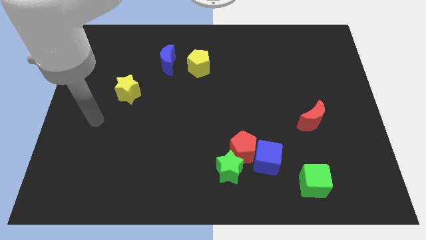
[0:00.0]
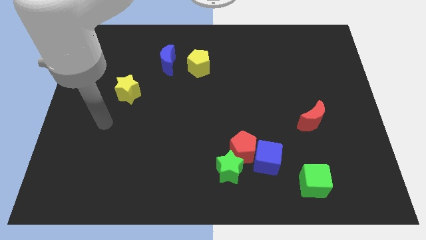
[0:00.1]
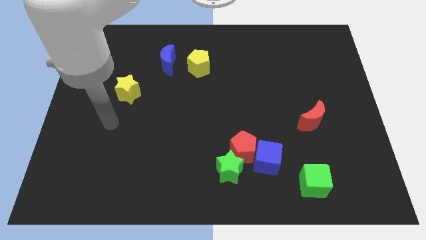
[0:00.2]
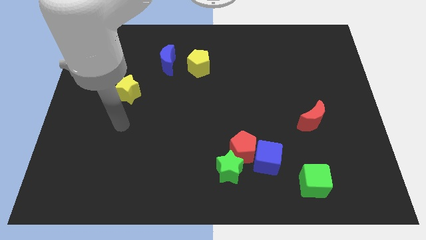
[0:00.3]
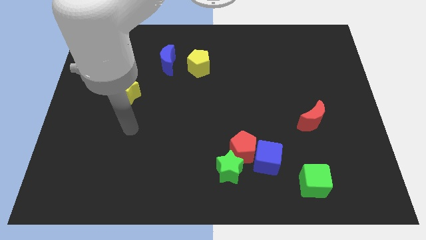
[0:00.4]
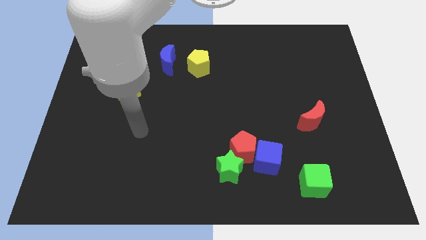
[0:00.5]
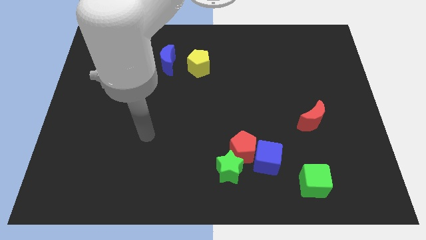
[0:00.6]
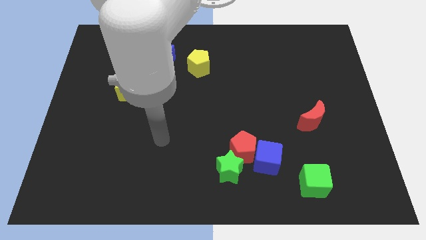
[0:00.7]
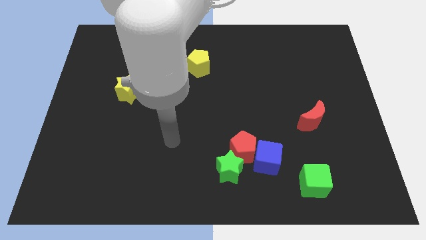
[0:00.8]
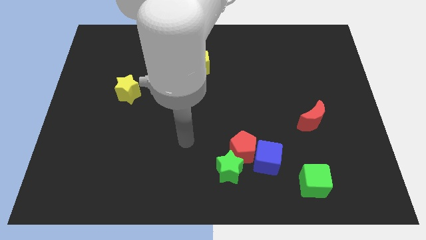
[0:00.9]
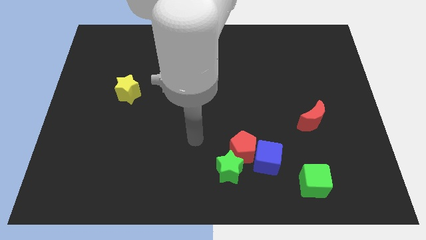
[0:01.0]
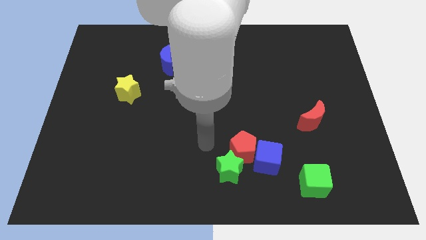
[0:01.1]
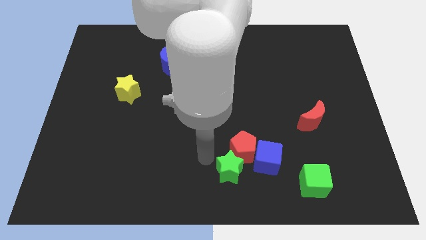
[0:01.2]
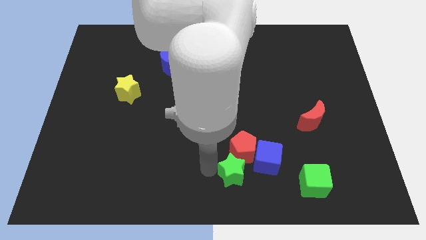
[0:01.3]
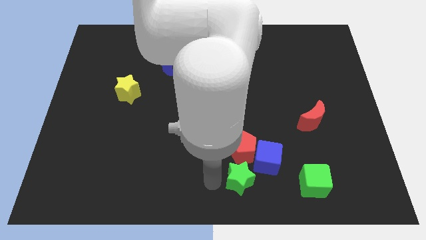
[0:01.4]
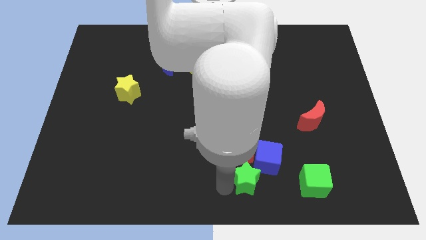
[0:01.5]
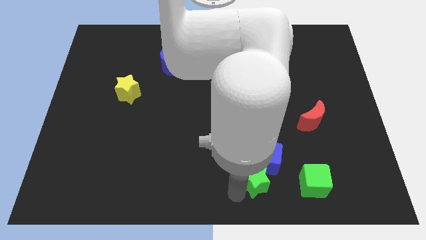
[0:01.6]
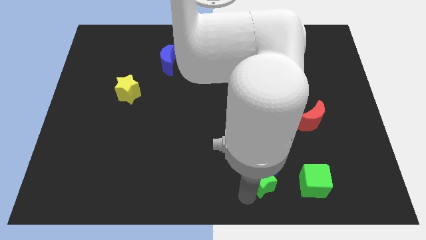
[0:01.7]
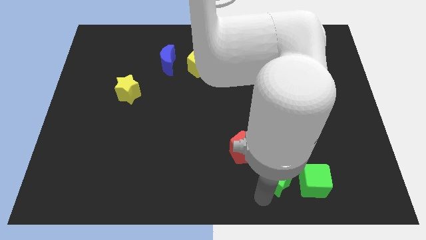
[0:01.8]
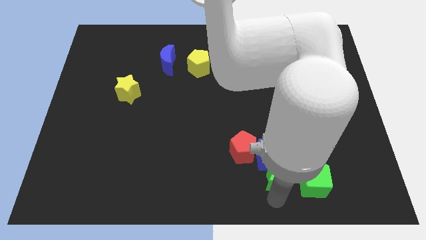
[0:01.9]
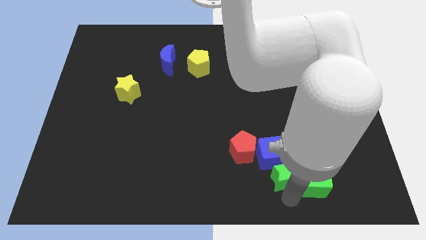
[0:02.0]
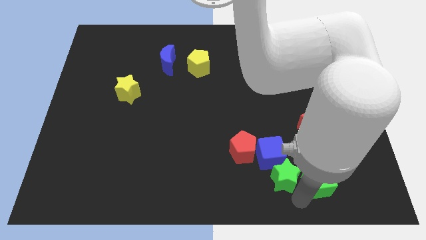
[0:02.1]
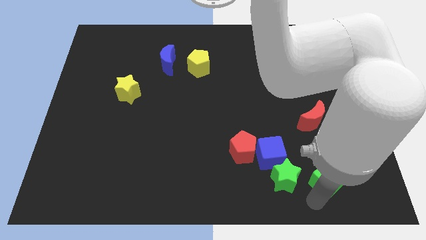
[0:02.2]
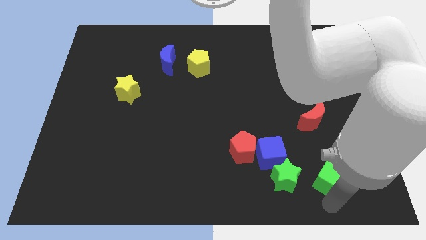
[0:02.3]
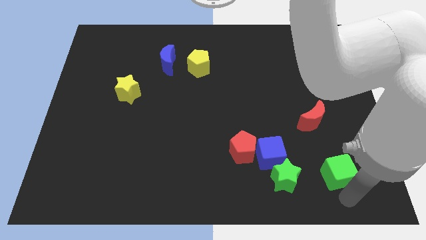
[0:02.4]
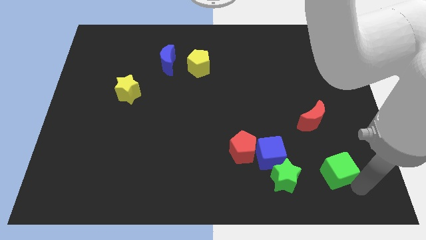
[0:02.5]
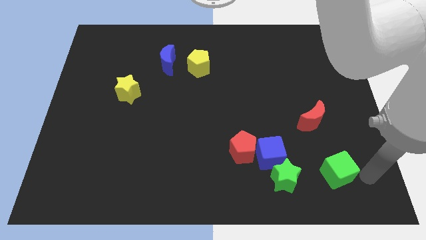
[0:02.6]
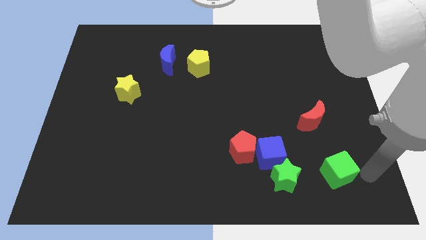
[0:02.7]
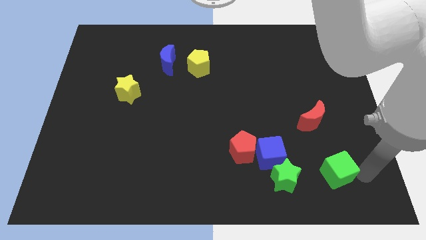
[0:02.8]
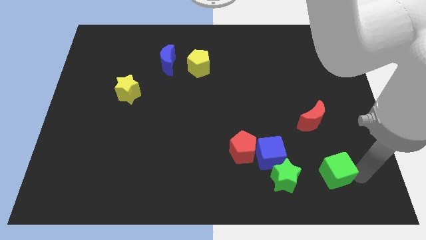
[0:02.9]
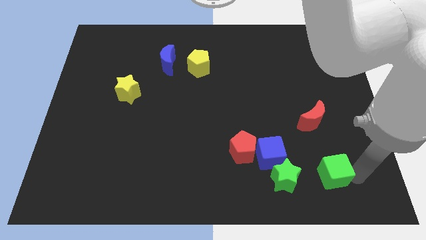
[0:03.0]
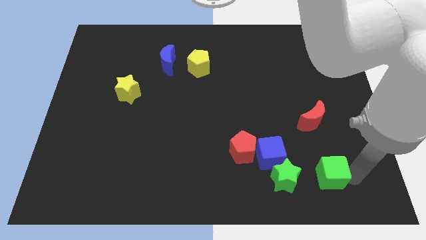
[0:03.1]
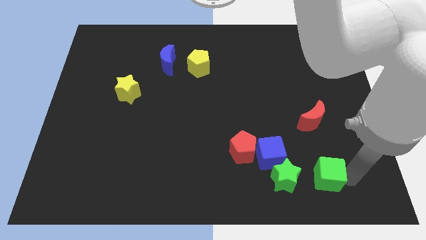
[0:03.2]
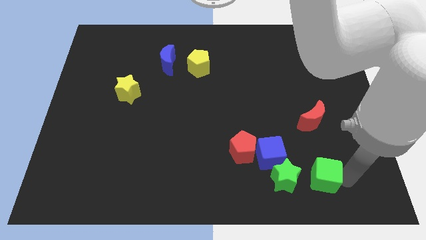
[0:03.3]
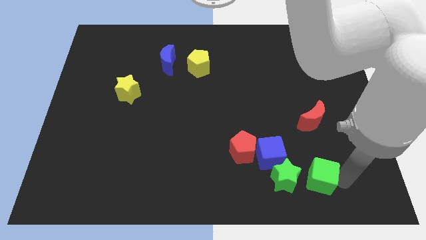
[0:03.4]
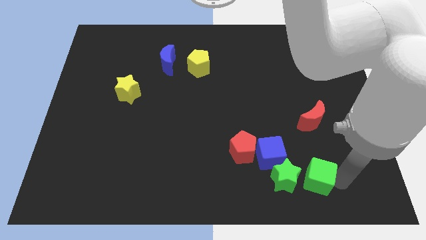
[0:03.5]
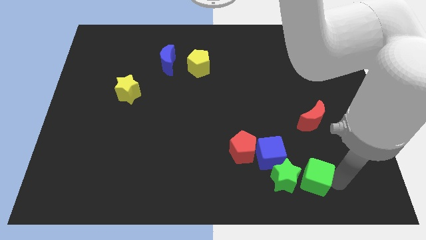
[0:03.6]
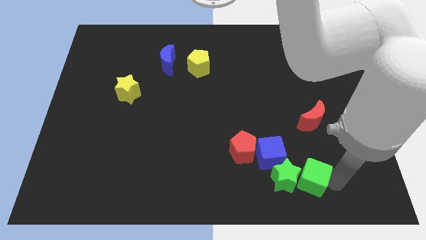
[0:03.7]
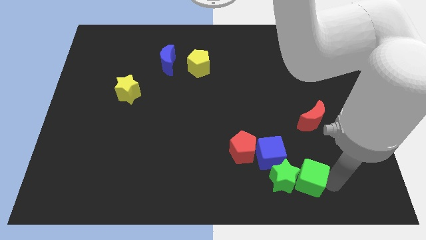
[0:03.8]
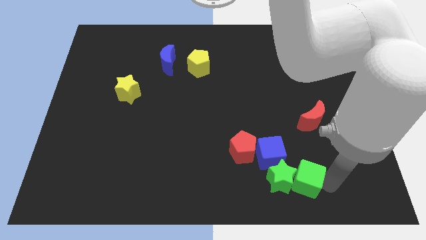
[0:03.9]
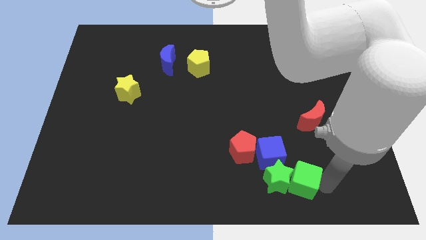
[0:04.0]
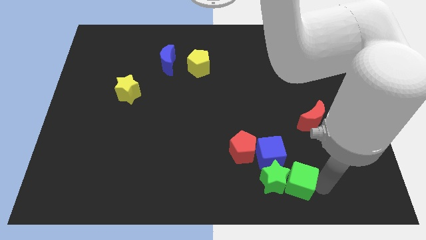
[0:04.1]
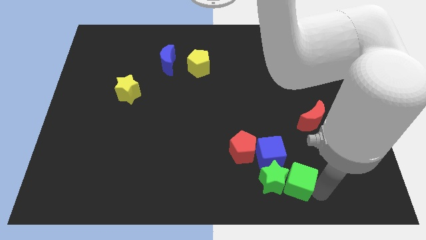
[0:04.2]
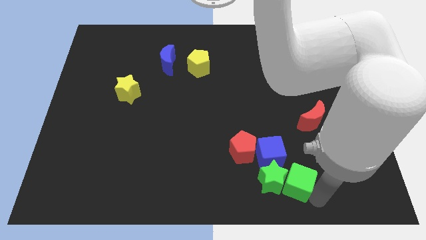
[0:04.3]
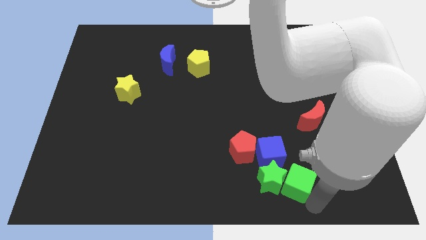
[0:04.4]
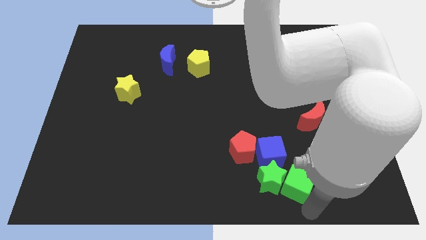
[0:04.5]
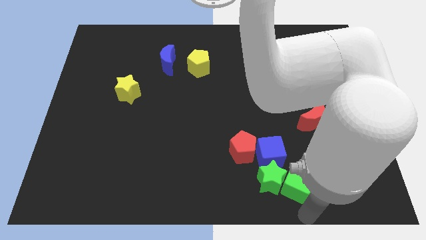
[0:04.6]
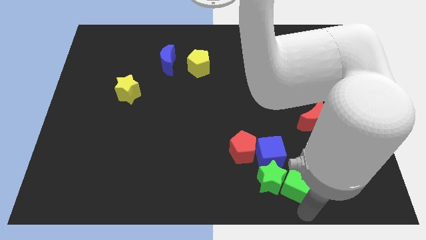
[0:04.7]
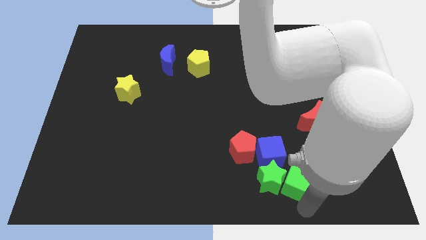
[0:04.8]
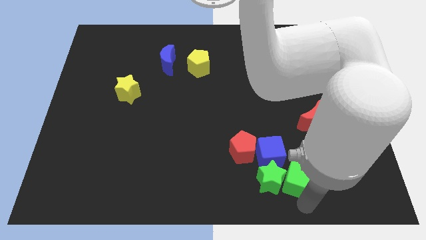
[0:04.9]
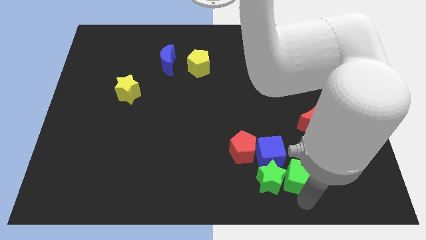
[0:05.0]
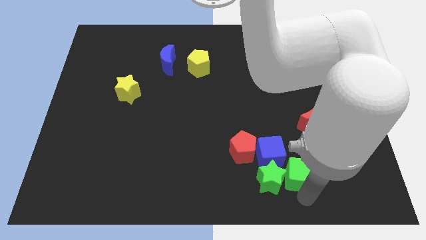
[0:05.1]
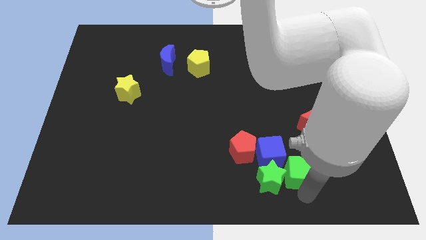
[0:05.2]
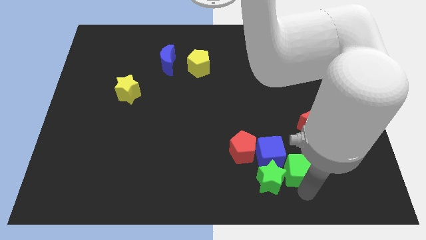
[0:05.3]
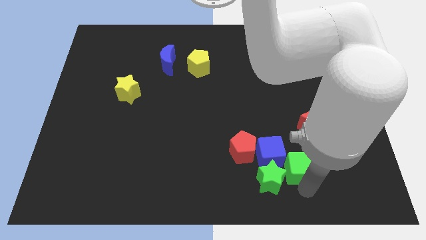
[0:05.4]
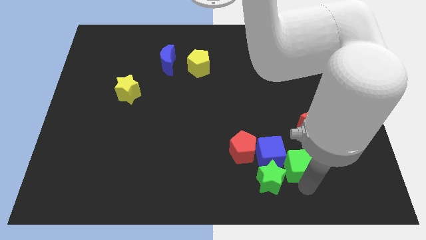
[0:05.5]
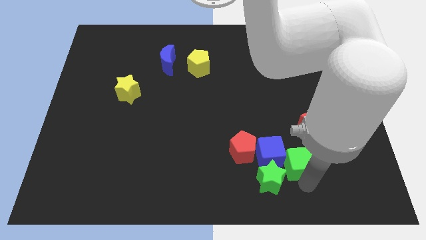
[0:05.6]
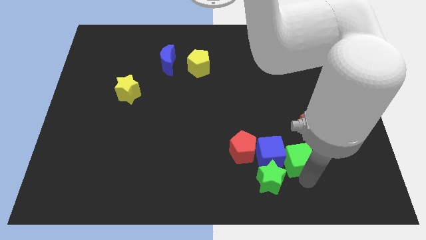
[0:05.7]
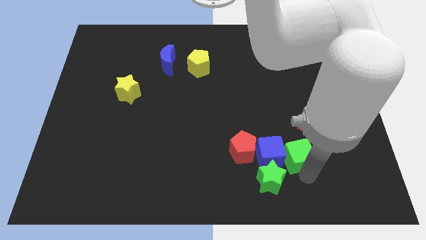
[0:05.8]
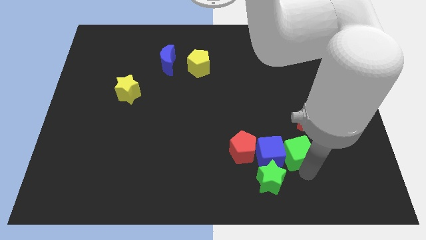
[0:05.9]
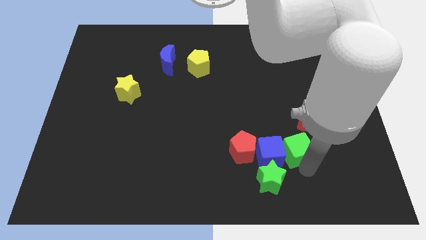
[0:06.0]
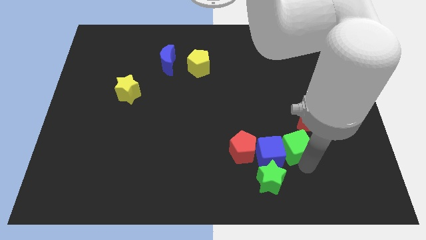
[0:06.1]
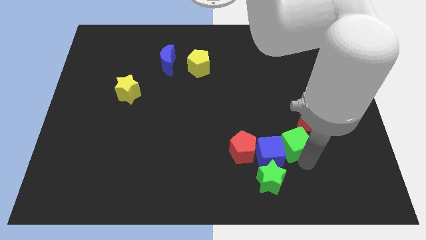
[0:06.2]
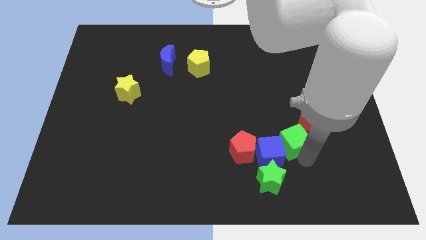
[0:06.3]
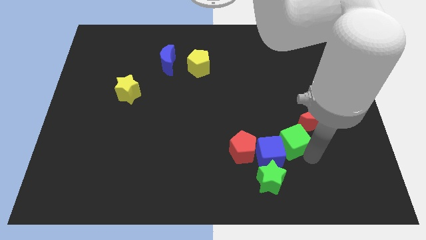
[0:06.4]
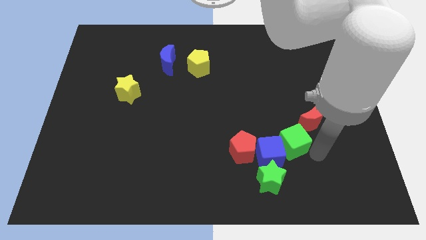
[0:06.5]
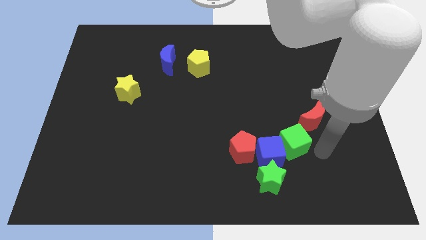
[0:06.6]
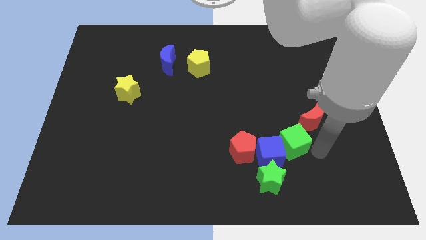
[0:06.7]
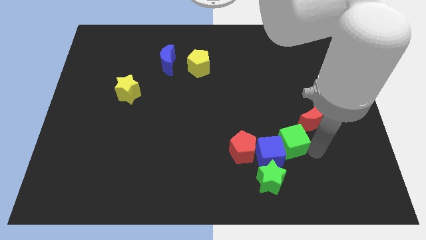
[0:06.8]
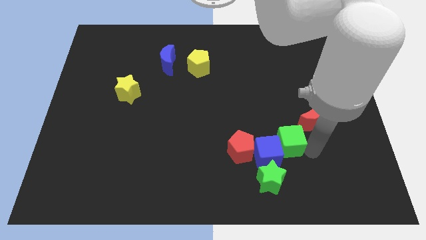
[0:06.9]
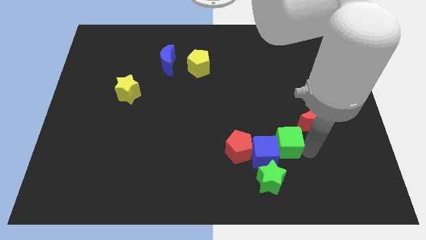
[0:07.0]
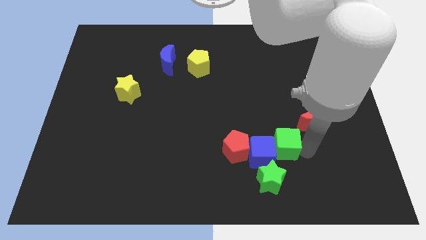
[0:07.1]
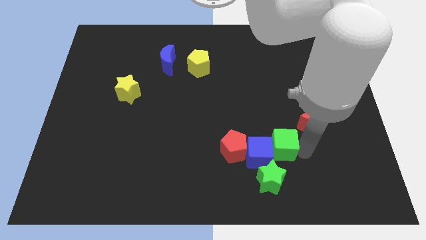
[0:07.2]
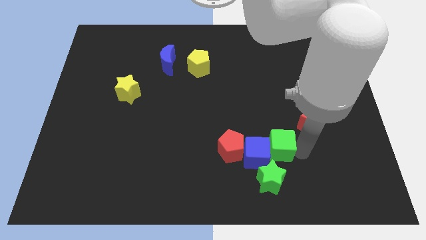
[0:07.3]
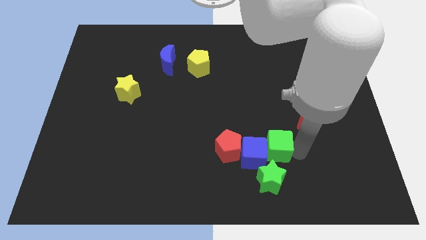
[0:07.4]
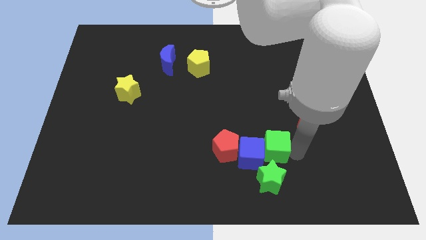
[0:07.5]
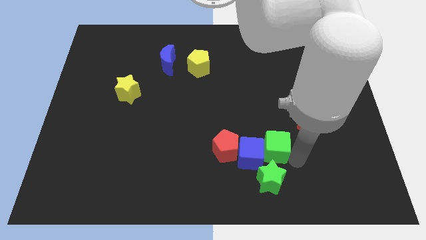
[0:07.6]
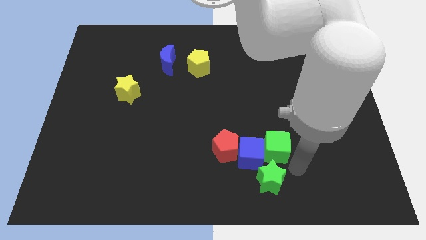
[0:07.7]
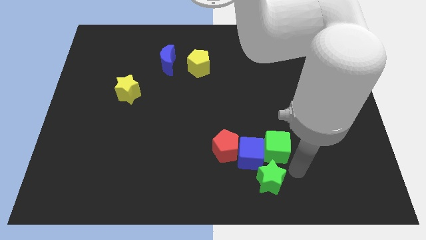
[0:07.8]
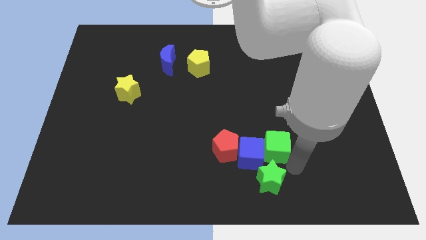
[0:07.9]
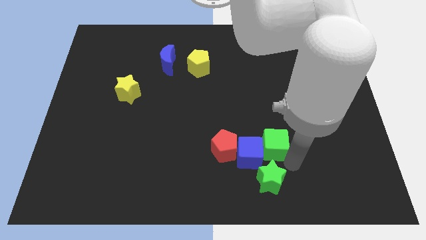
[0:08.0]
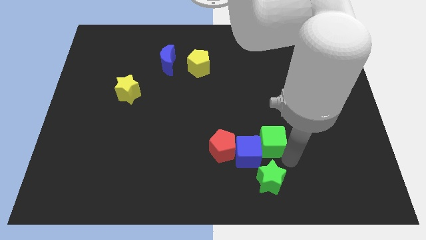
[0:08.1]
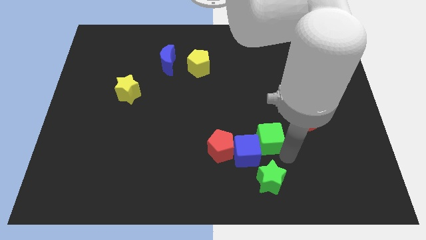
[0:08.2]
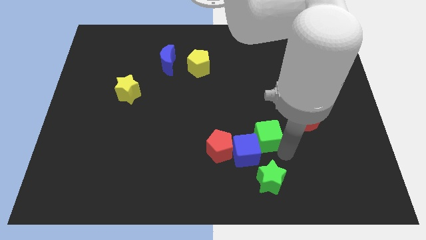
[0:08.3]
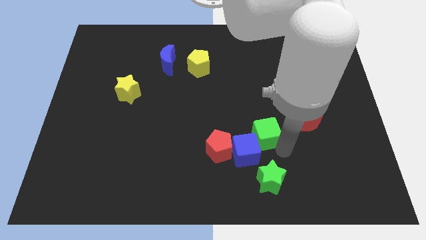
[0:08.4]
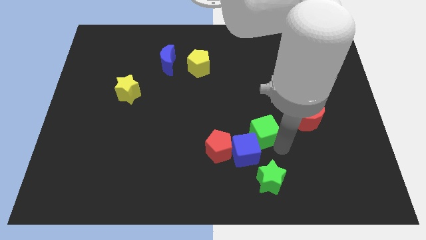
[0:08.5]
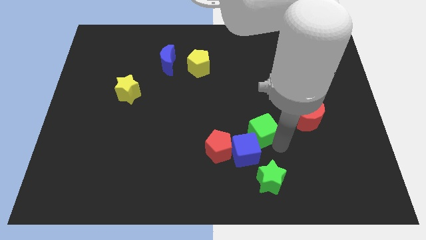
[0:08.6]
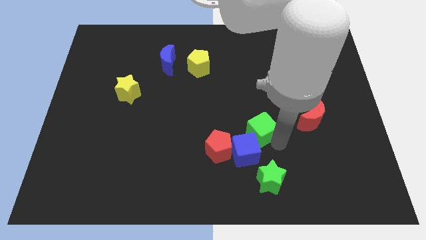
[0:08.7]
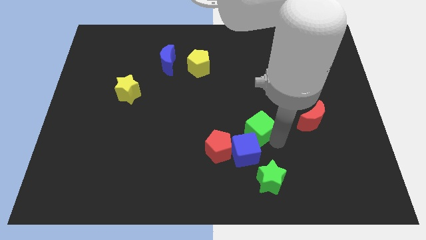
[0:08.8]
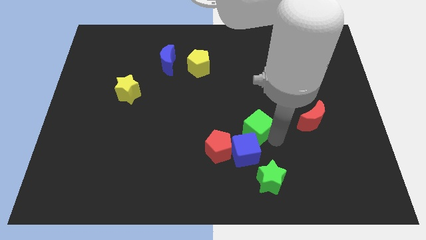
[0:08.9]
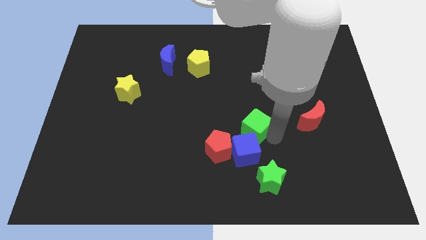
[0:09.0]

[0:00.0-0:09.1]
push the green cube to the center
